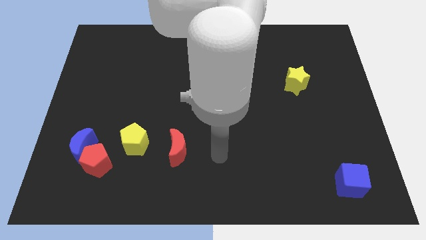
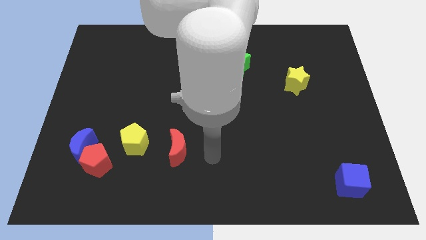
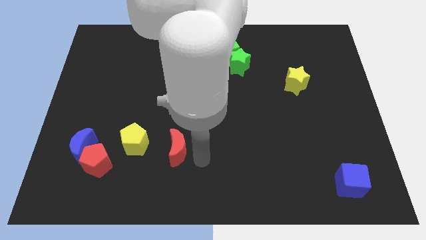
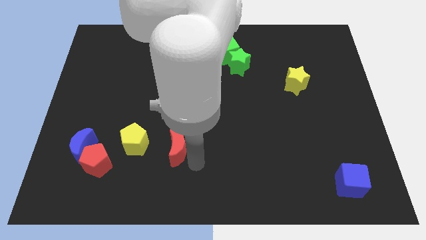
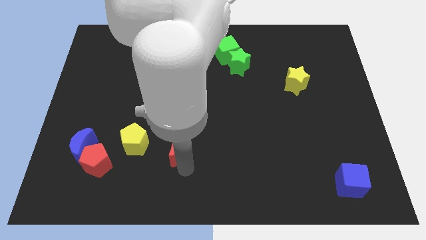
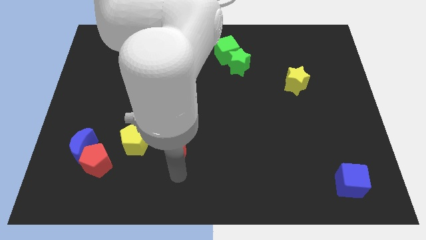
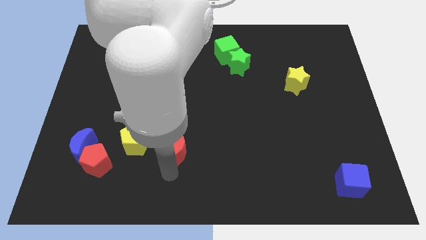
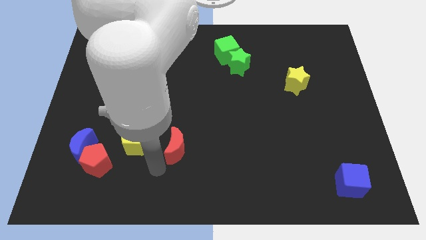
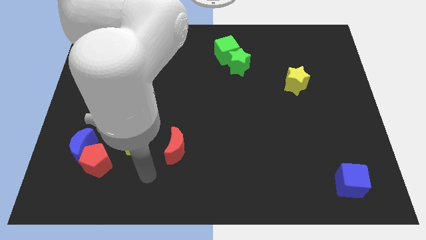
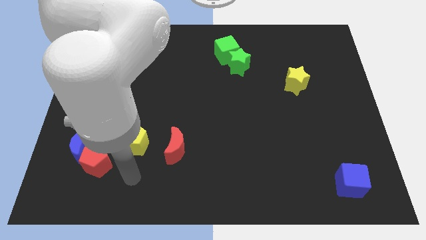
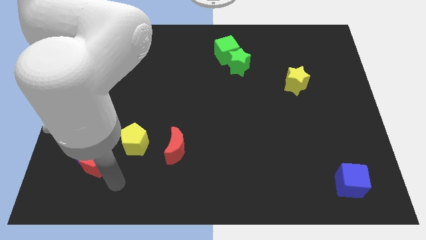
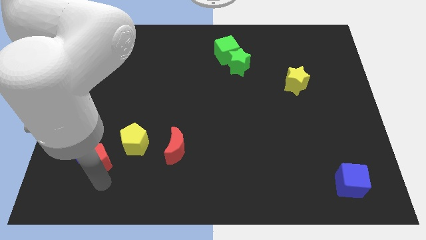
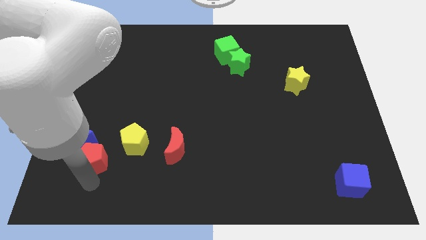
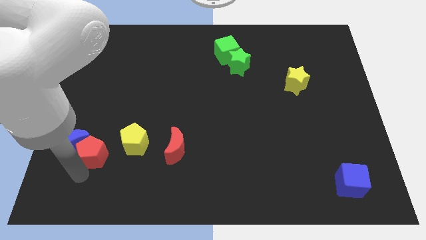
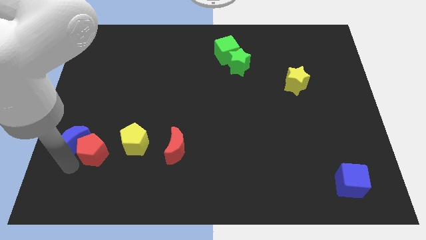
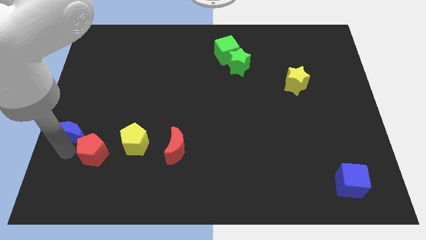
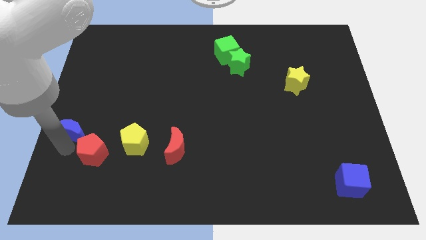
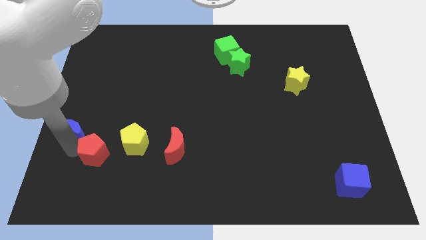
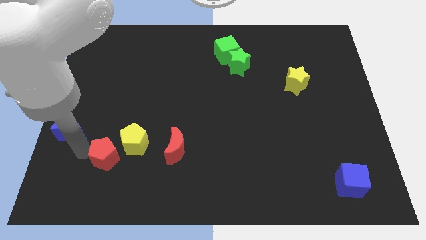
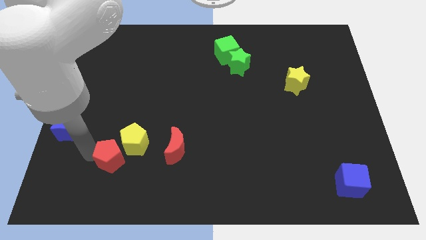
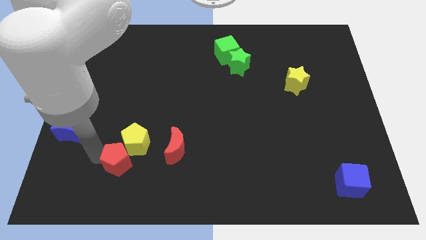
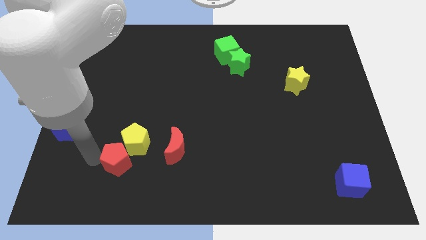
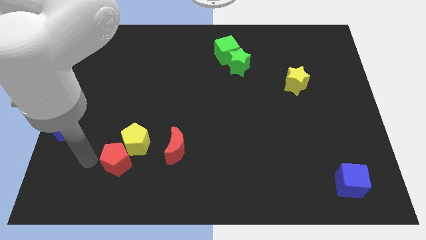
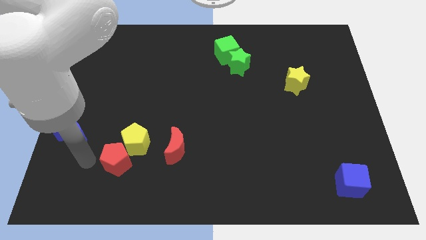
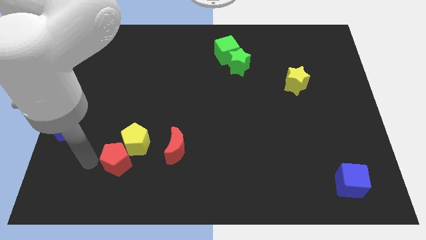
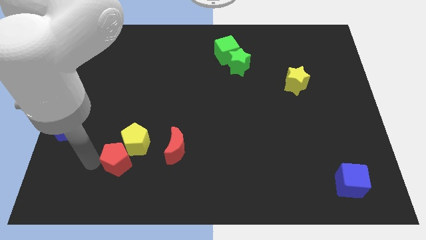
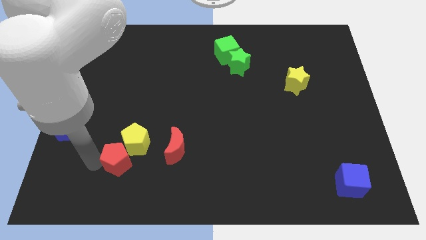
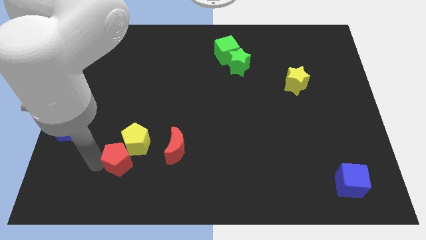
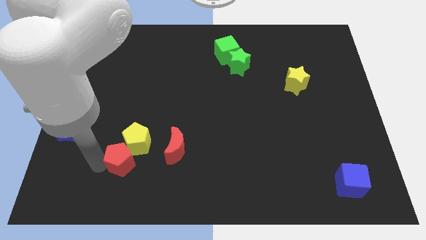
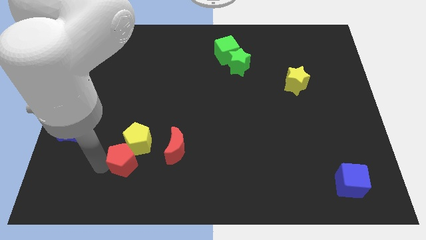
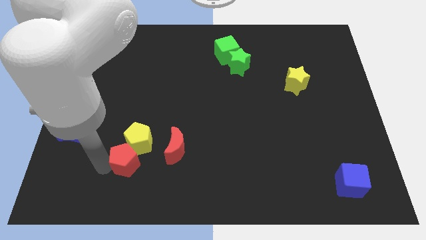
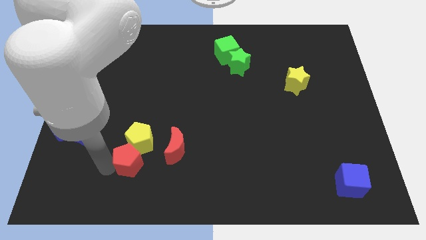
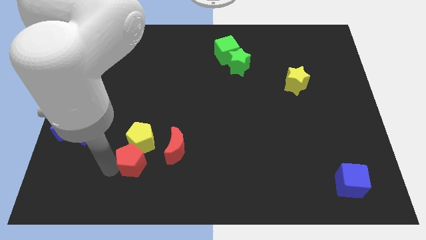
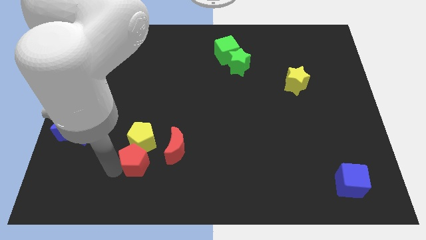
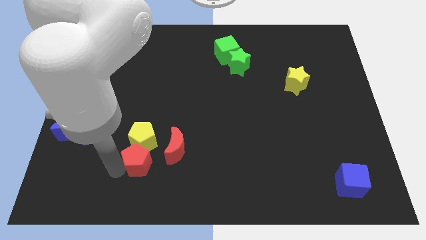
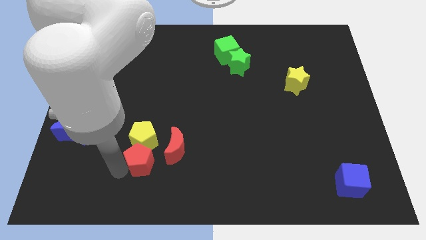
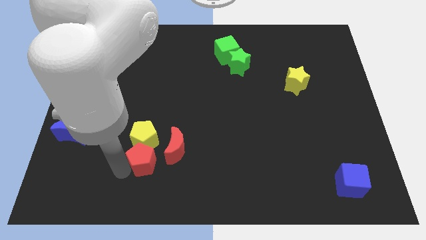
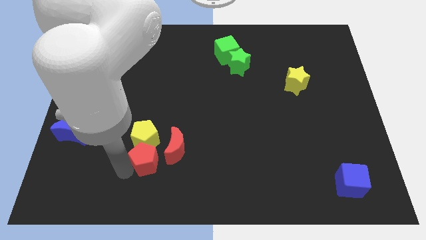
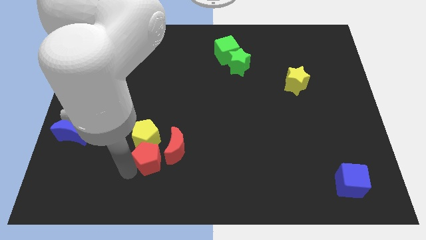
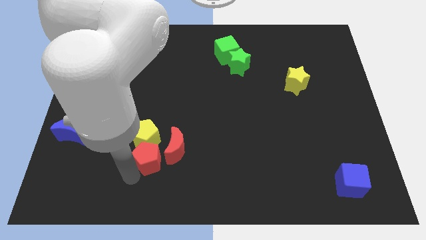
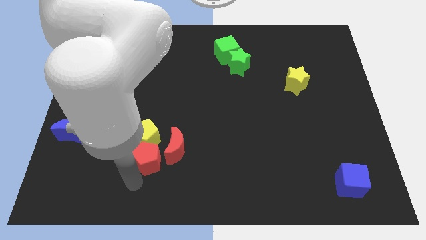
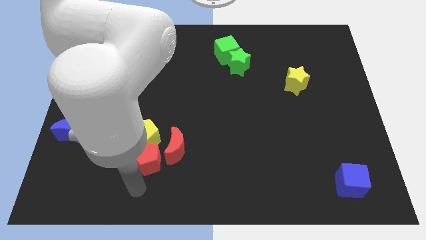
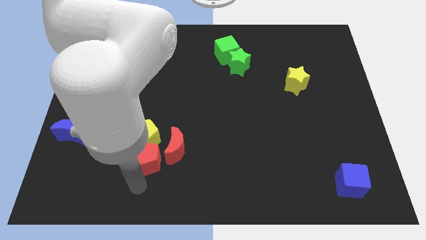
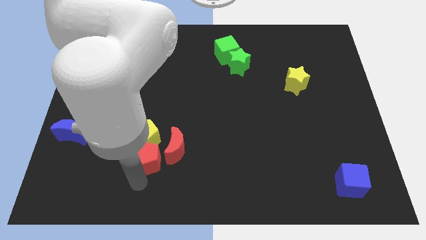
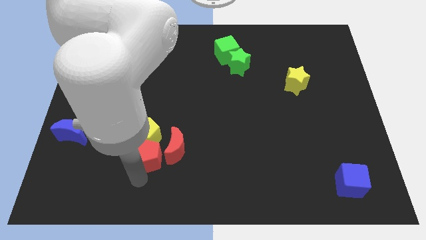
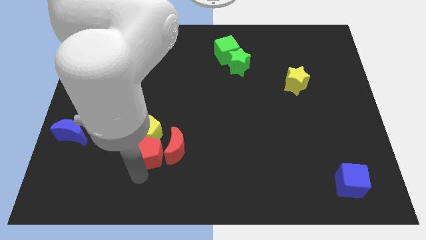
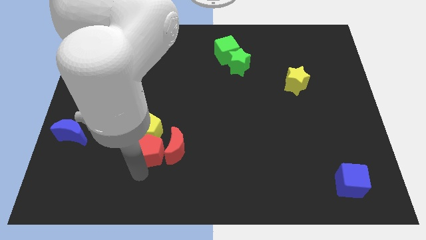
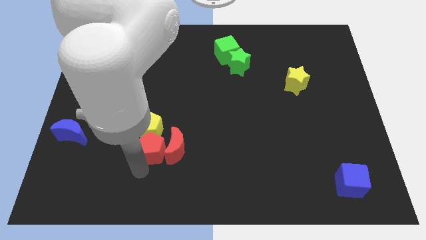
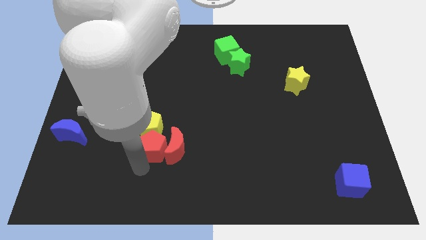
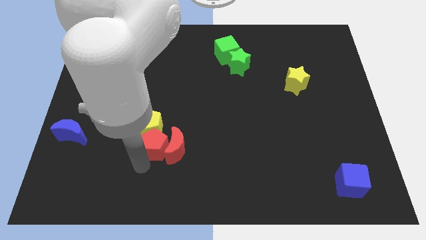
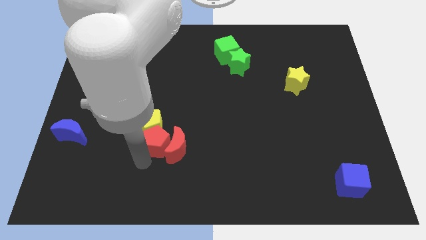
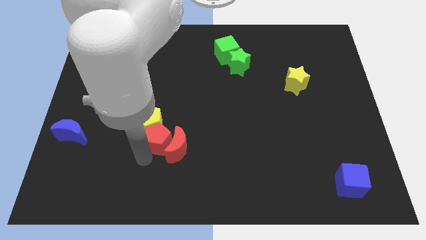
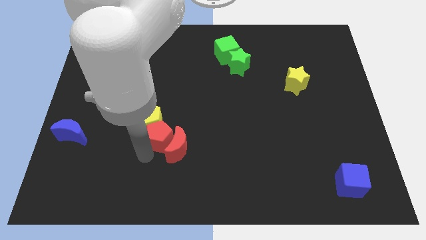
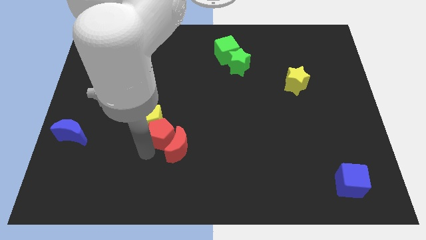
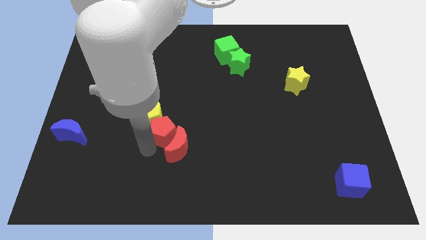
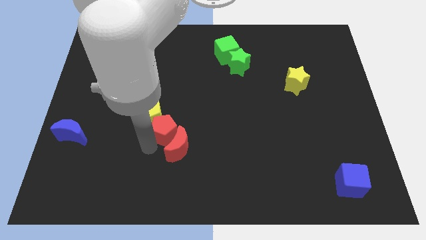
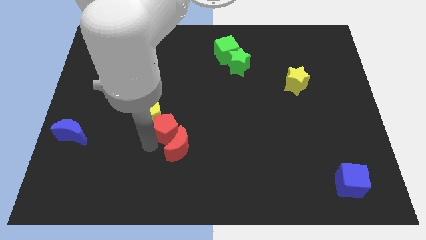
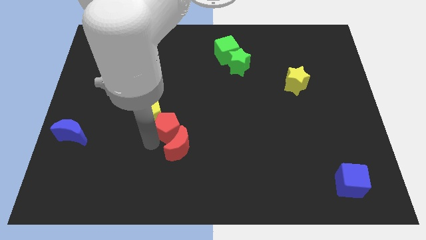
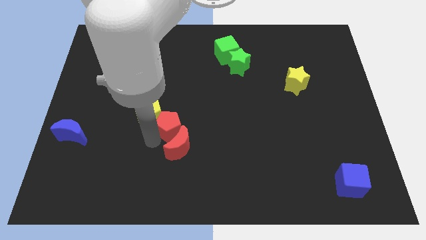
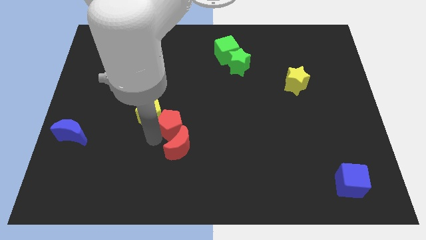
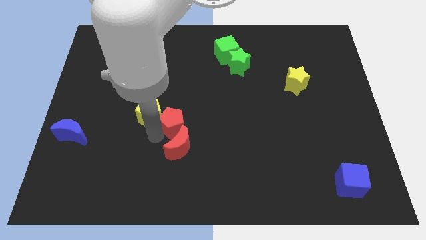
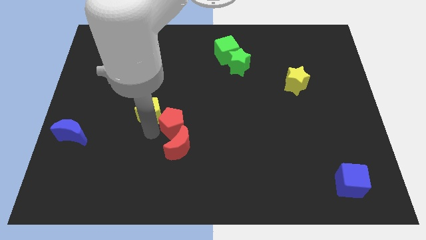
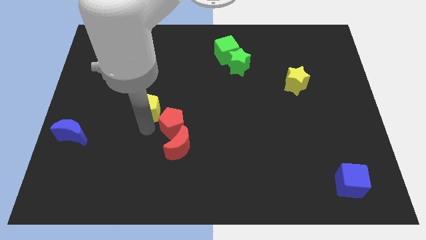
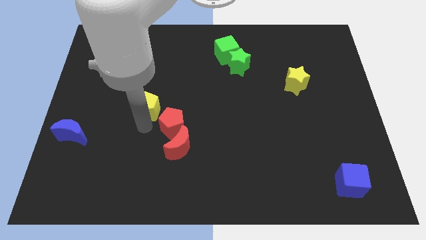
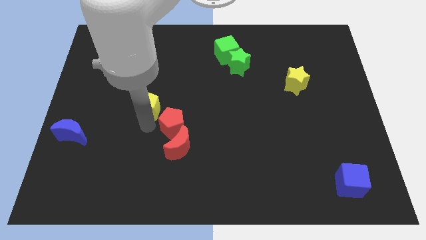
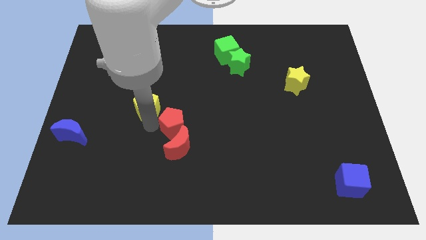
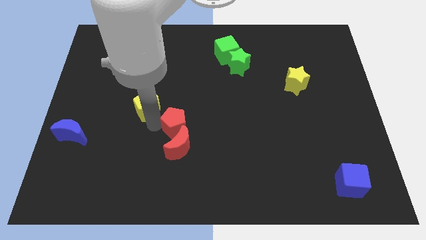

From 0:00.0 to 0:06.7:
put the red pentagon to the top right of the red moon

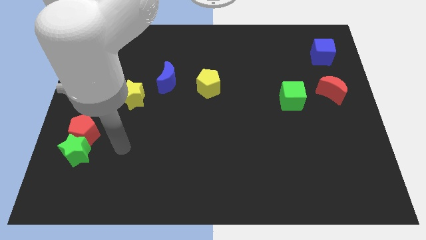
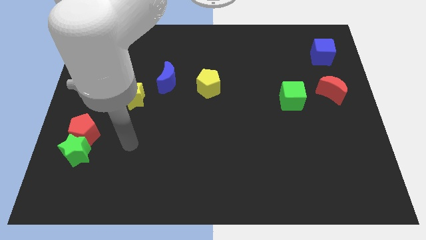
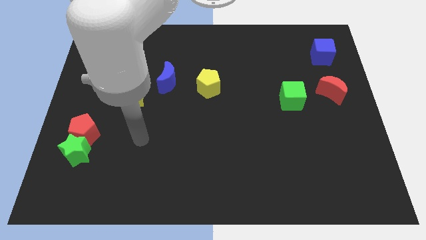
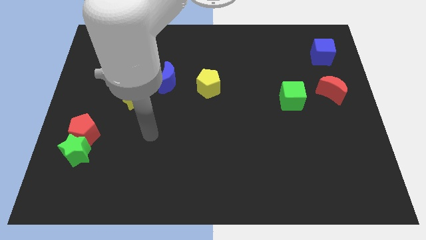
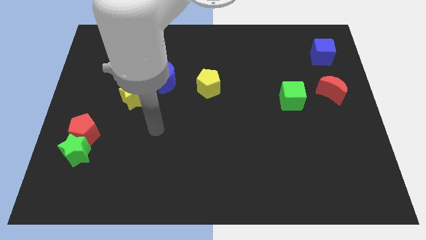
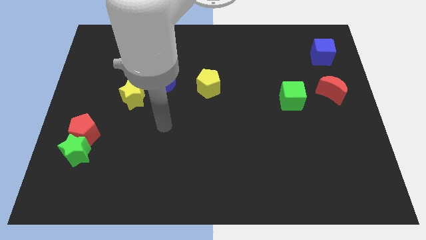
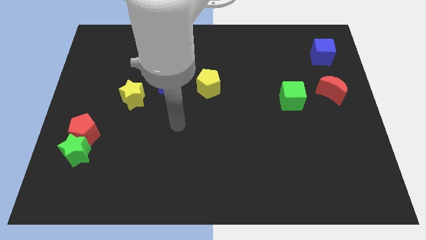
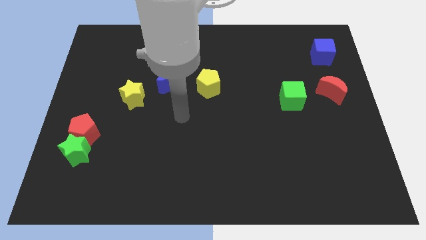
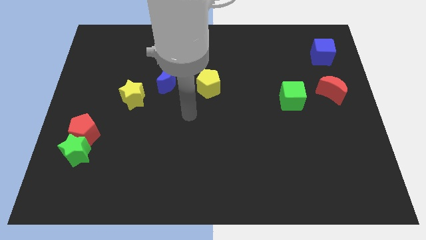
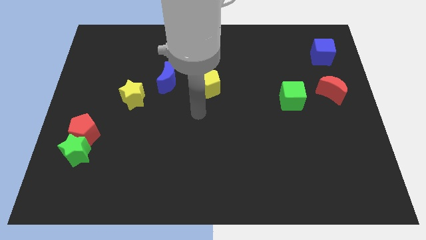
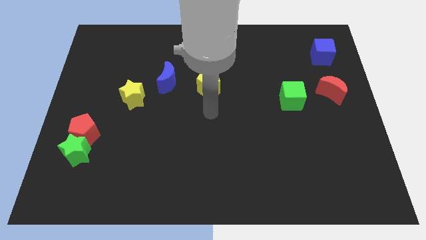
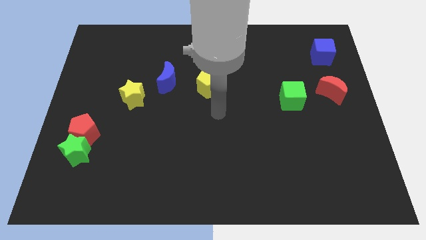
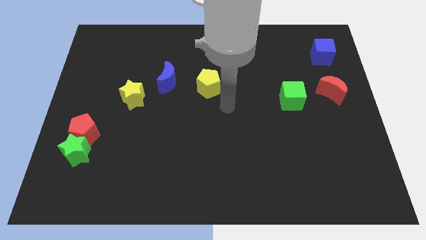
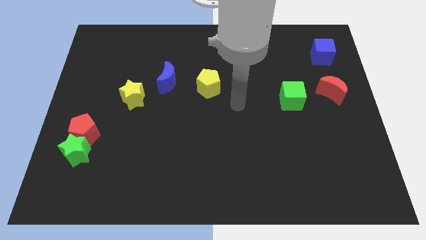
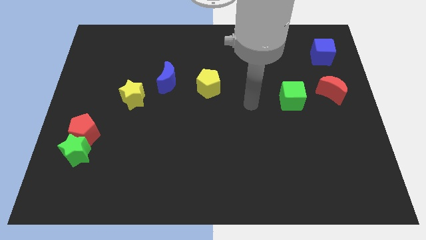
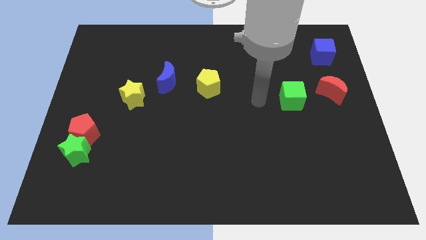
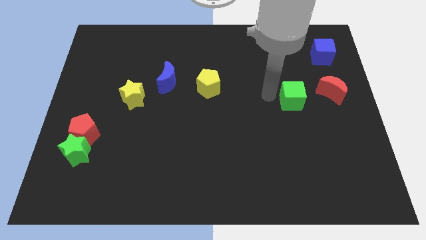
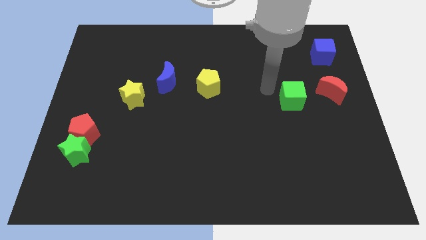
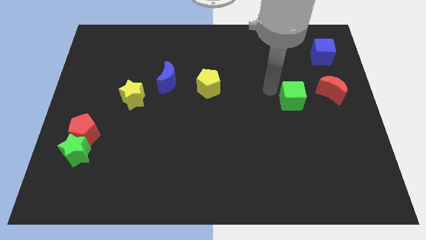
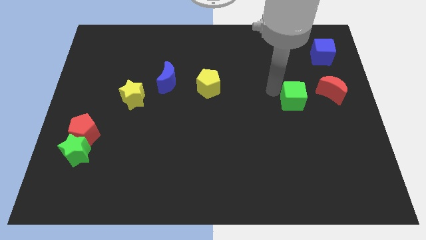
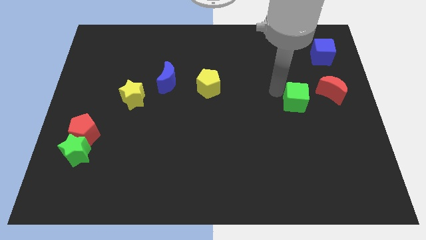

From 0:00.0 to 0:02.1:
move the green cube to the bottom left side of the red moon
